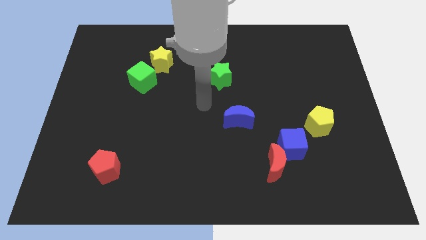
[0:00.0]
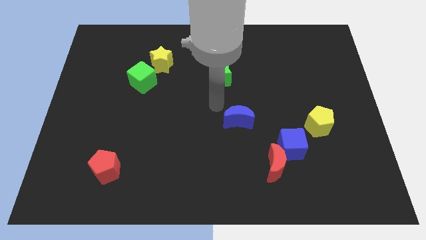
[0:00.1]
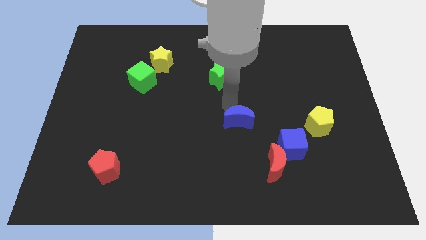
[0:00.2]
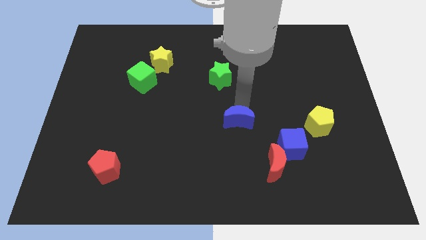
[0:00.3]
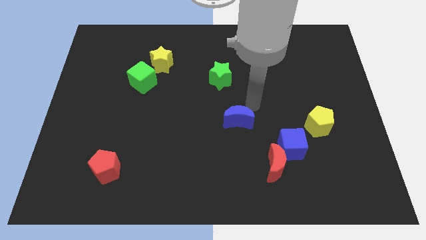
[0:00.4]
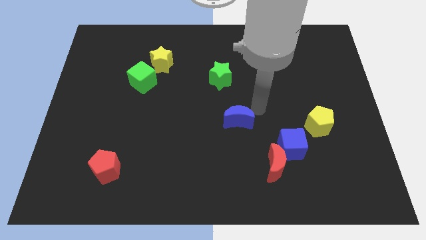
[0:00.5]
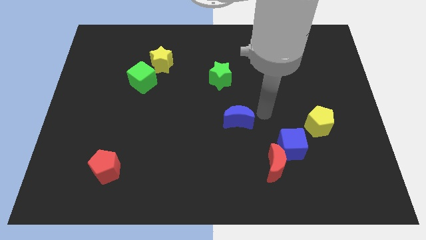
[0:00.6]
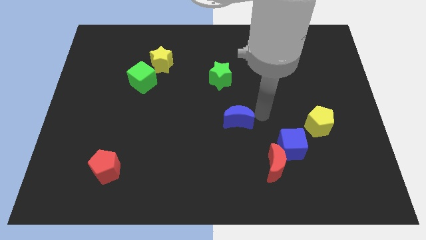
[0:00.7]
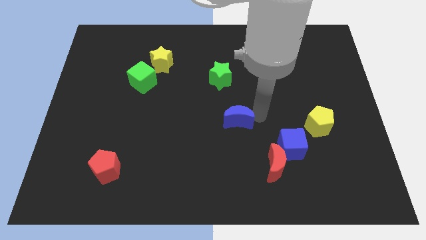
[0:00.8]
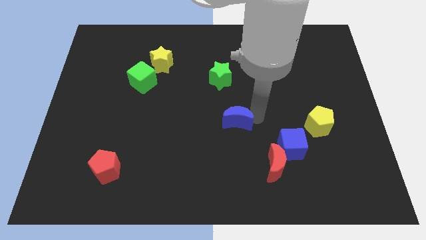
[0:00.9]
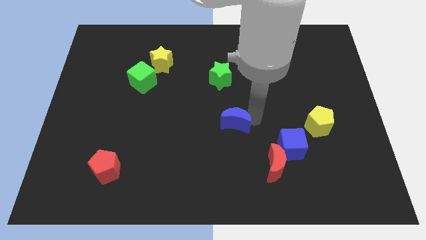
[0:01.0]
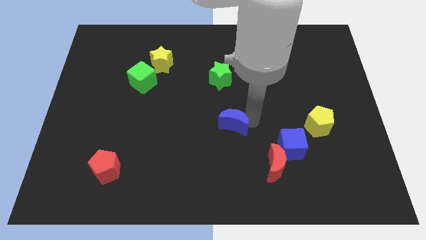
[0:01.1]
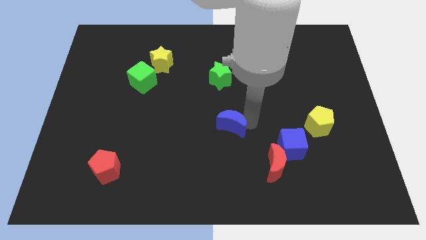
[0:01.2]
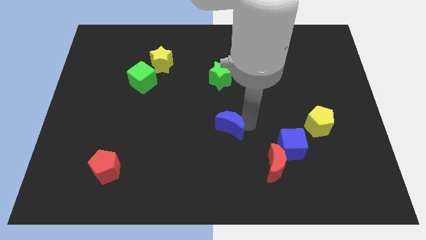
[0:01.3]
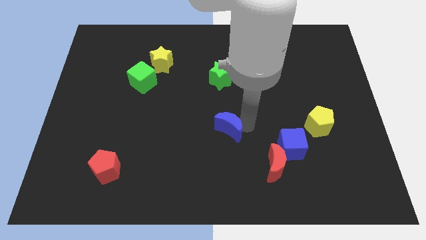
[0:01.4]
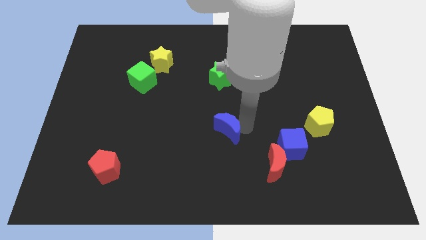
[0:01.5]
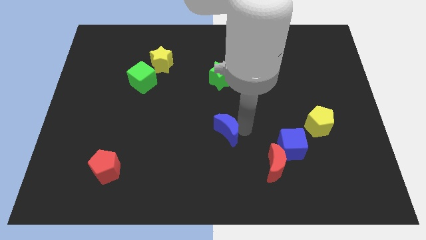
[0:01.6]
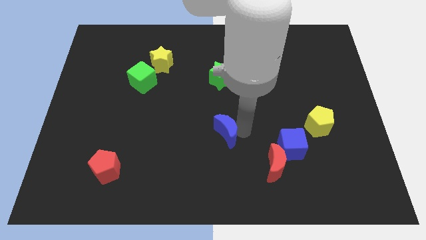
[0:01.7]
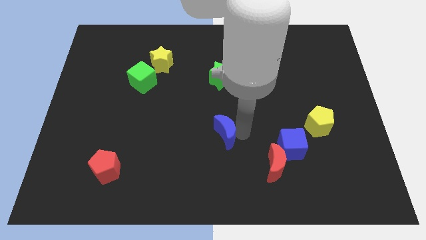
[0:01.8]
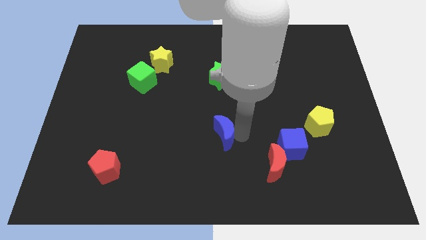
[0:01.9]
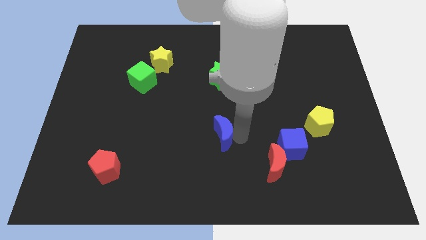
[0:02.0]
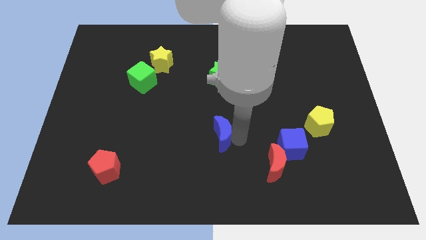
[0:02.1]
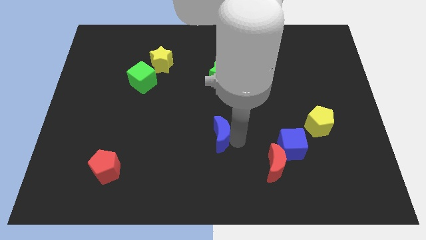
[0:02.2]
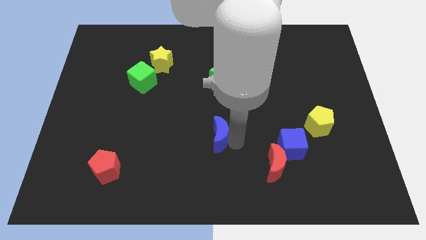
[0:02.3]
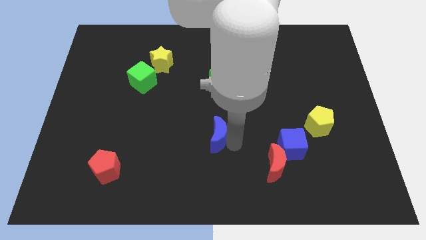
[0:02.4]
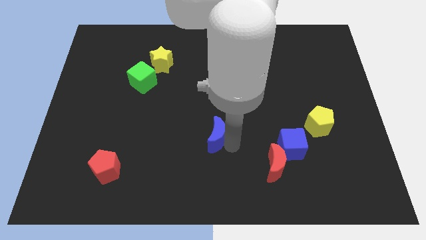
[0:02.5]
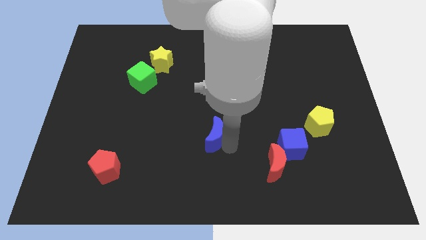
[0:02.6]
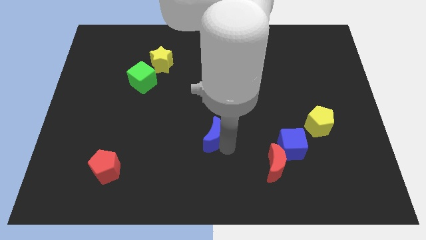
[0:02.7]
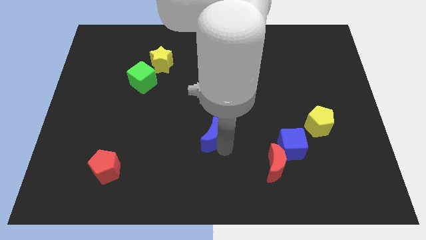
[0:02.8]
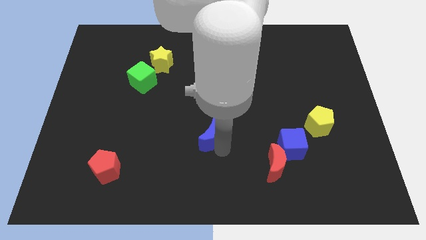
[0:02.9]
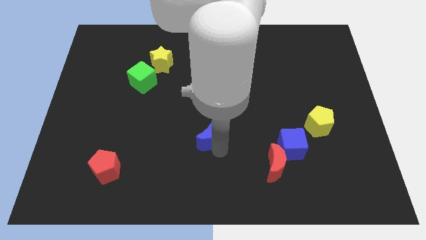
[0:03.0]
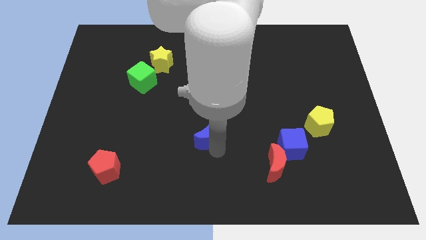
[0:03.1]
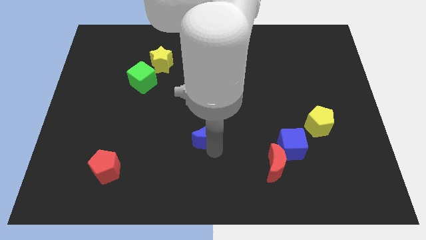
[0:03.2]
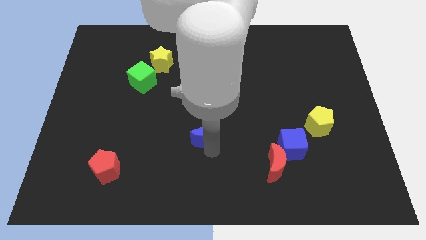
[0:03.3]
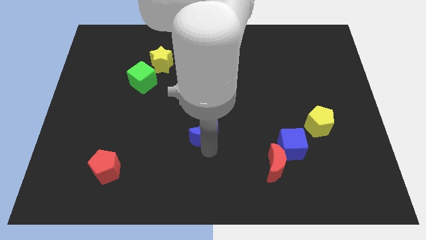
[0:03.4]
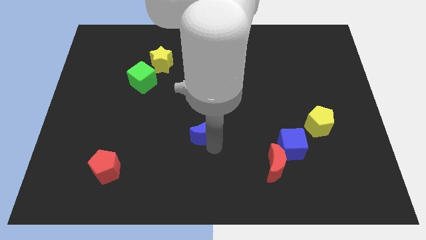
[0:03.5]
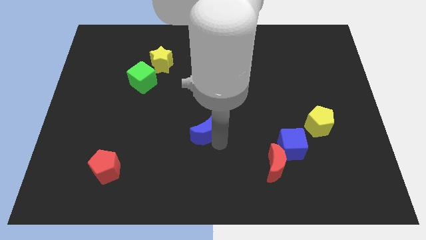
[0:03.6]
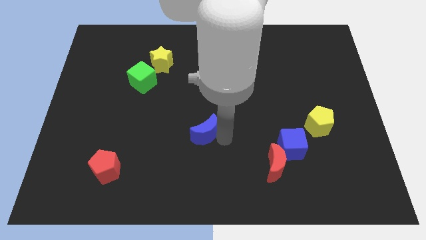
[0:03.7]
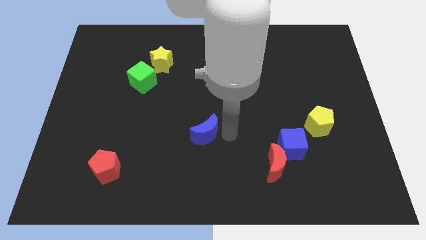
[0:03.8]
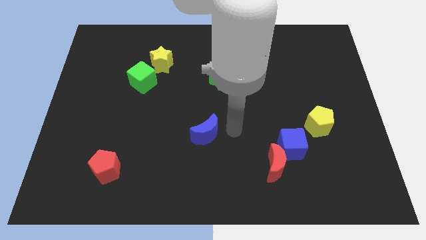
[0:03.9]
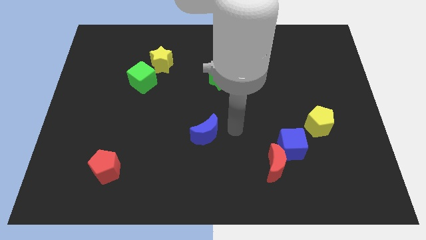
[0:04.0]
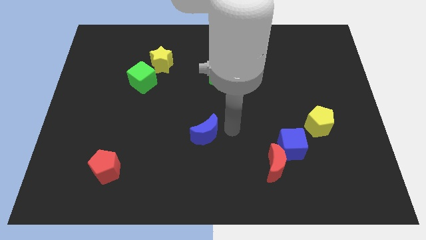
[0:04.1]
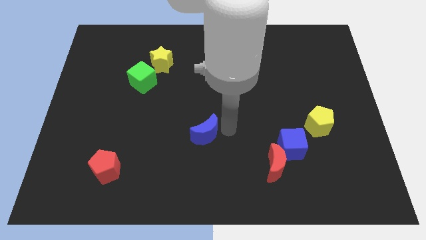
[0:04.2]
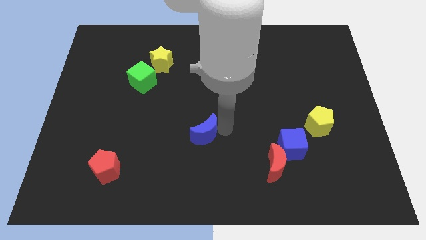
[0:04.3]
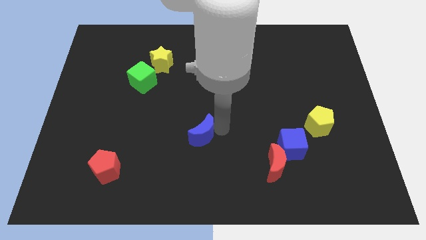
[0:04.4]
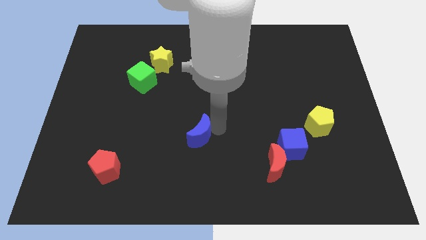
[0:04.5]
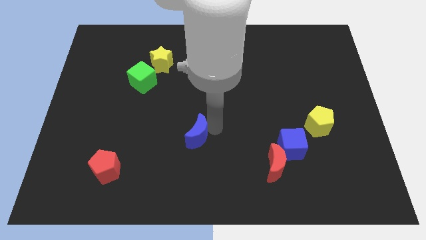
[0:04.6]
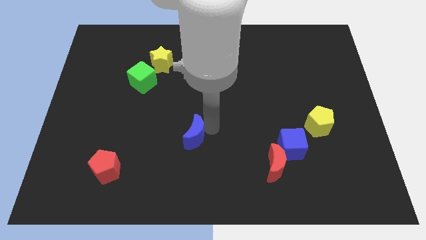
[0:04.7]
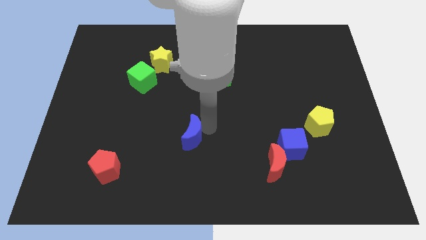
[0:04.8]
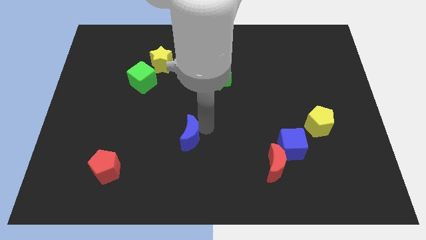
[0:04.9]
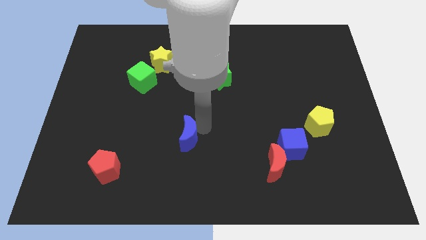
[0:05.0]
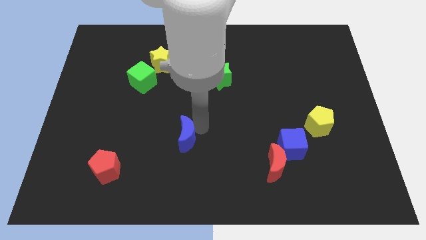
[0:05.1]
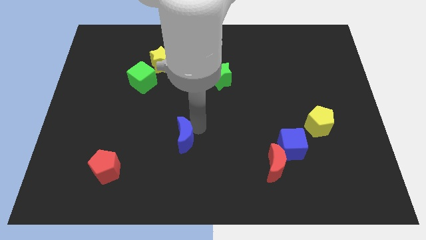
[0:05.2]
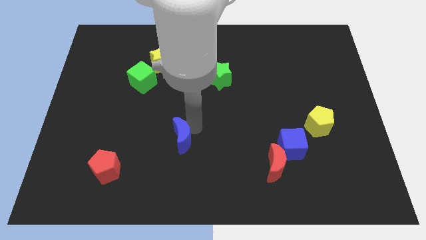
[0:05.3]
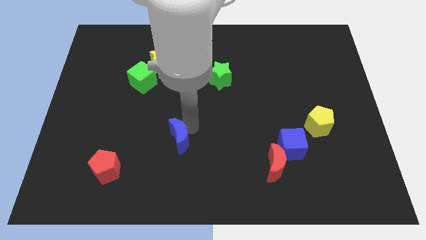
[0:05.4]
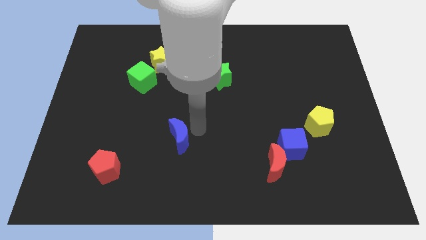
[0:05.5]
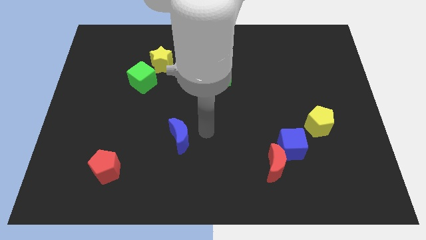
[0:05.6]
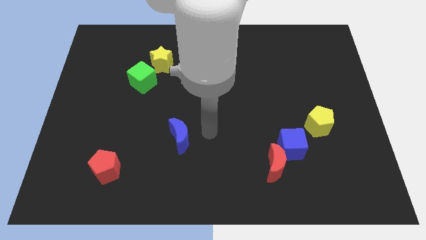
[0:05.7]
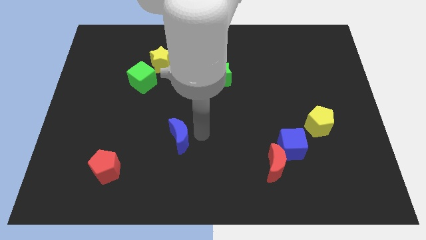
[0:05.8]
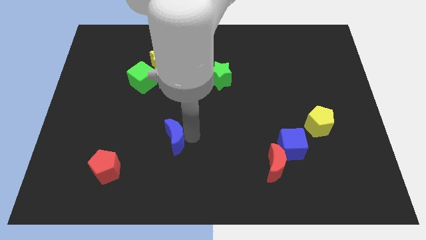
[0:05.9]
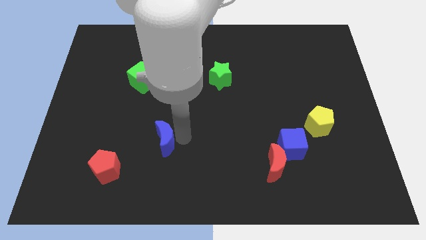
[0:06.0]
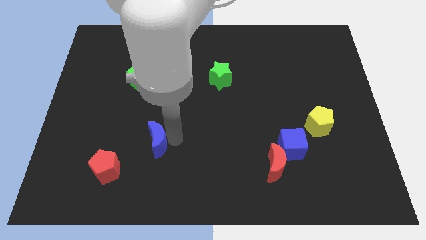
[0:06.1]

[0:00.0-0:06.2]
slide the blue moon diagonally up and to the right of the red pentagon

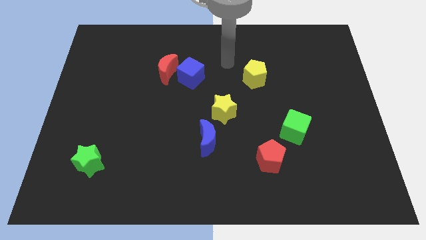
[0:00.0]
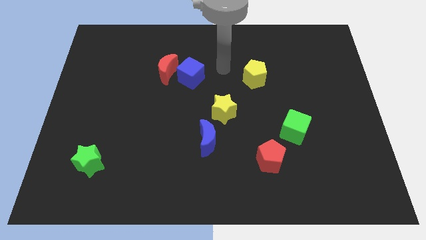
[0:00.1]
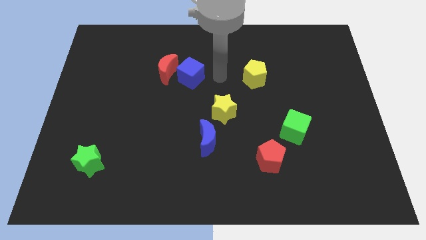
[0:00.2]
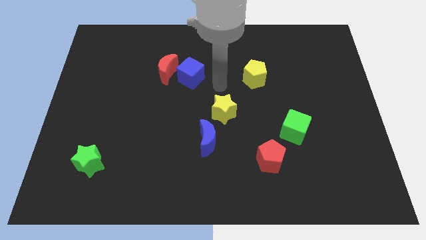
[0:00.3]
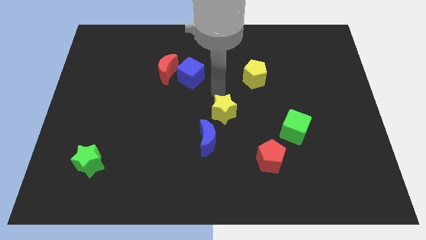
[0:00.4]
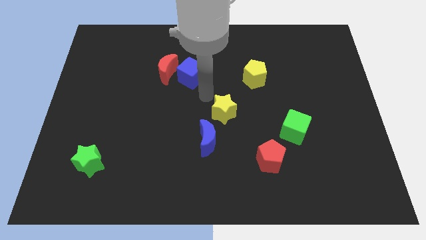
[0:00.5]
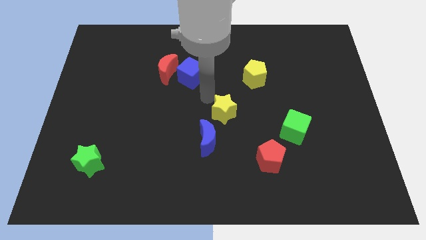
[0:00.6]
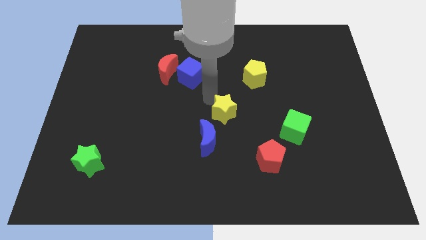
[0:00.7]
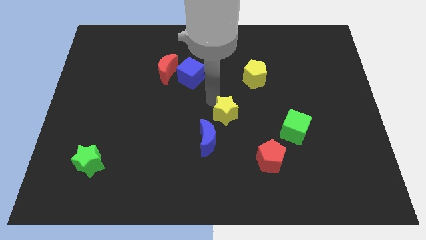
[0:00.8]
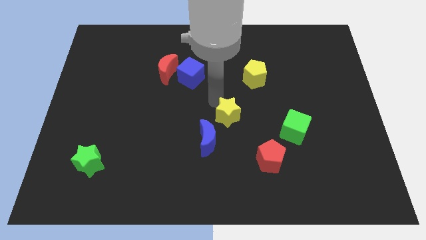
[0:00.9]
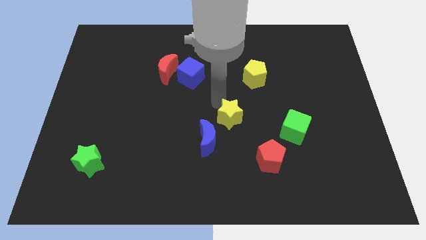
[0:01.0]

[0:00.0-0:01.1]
push the yellow star left of the green cube
